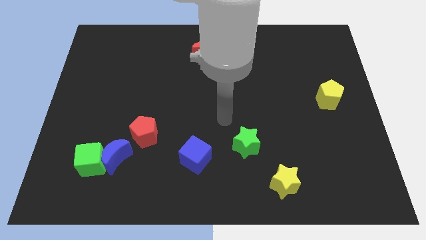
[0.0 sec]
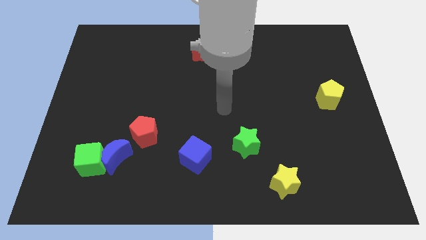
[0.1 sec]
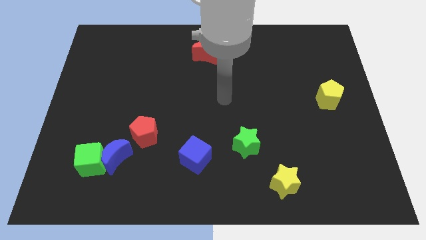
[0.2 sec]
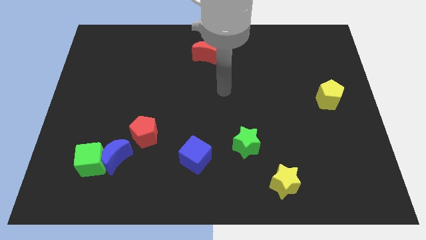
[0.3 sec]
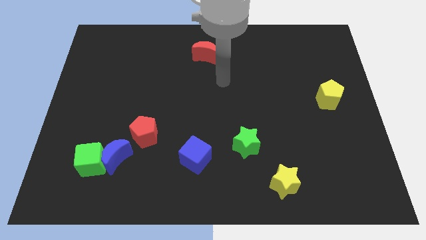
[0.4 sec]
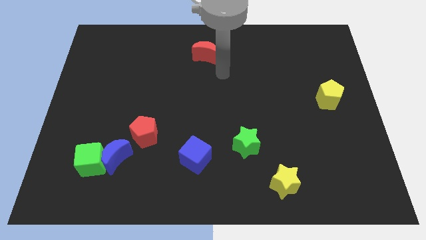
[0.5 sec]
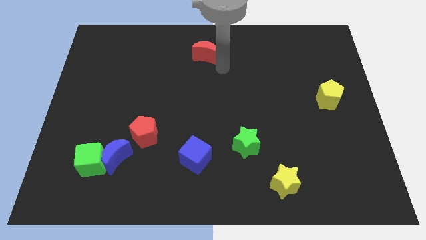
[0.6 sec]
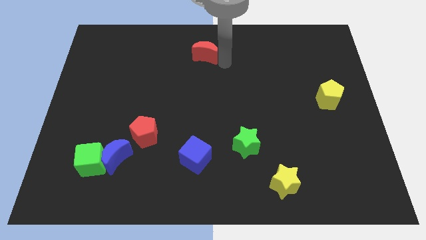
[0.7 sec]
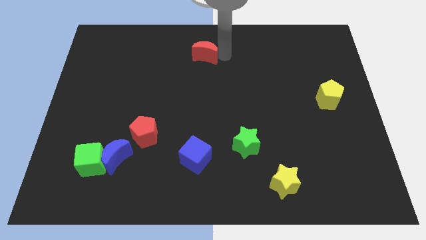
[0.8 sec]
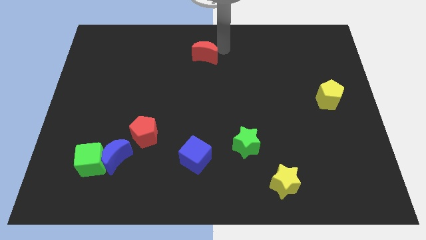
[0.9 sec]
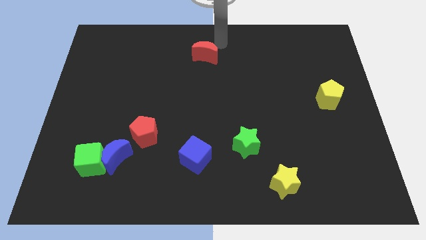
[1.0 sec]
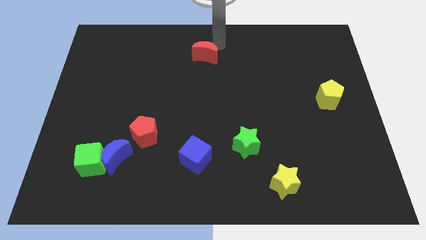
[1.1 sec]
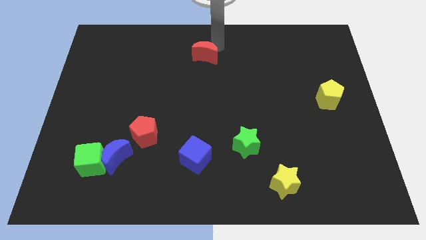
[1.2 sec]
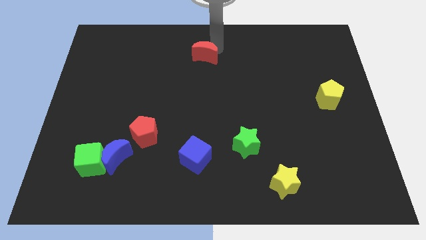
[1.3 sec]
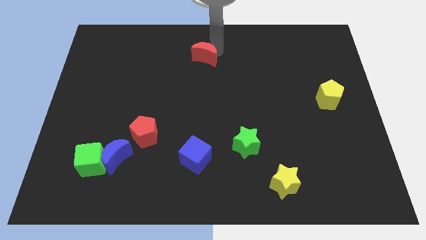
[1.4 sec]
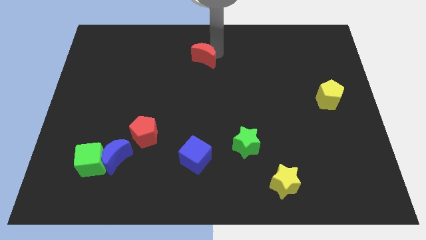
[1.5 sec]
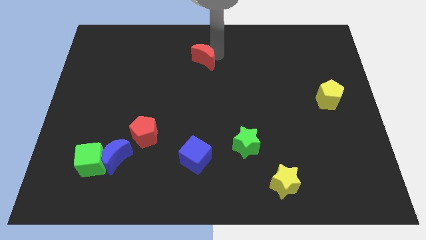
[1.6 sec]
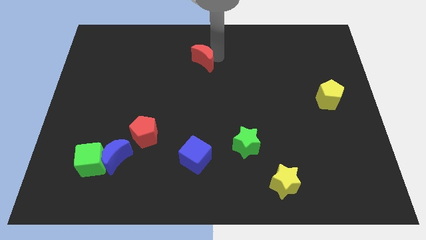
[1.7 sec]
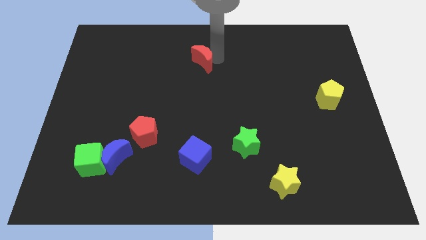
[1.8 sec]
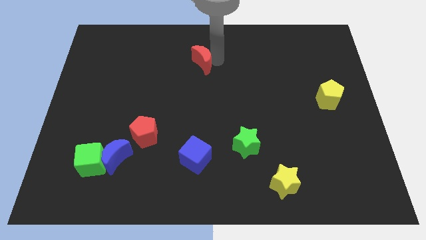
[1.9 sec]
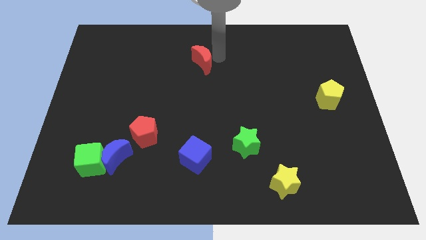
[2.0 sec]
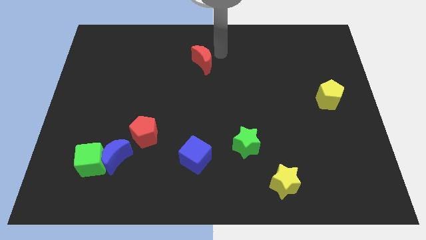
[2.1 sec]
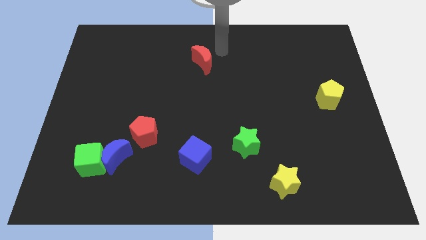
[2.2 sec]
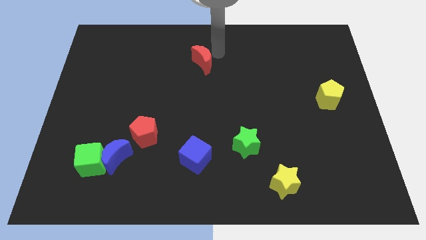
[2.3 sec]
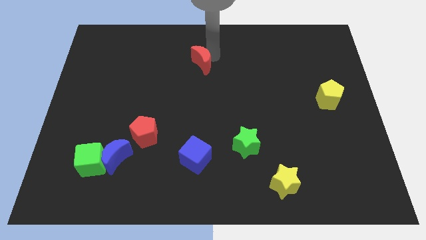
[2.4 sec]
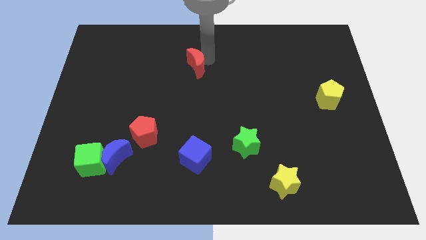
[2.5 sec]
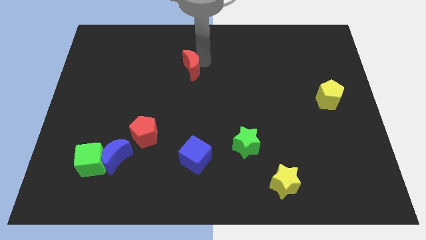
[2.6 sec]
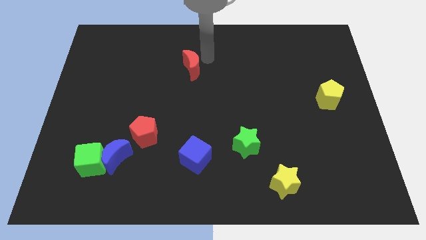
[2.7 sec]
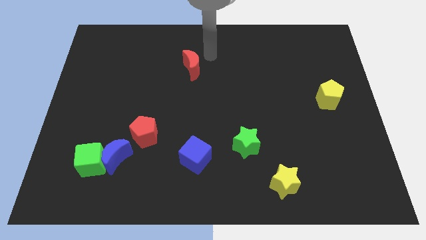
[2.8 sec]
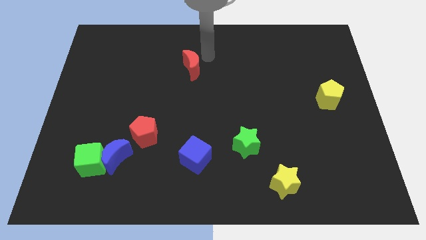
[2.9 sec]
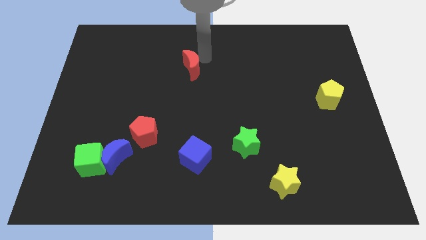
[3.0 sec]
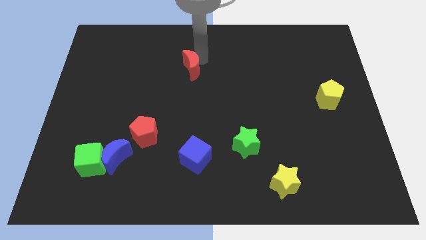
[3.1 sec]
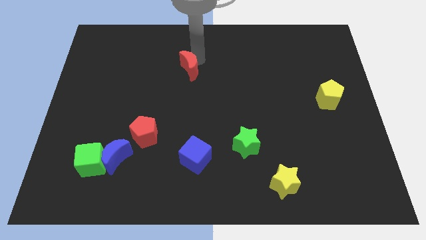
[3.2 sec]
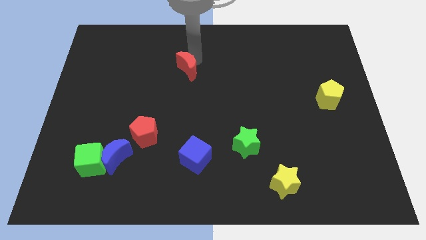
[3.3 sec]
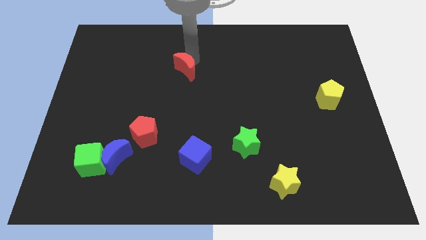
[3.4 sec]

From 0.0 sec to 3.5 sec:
slightly push the red moon diagonally down and to the left

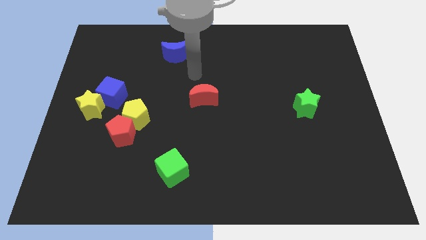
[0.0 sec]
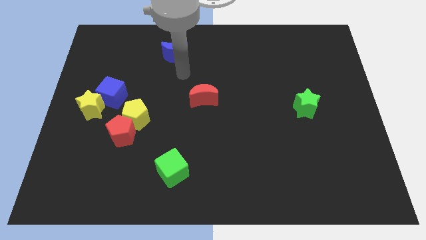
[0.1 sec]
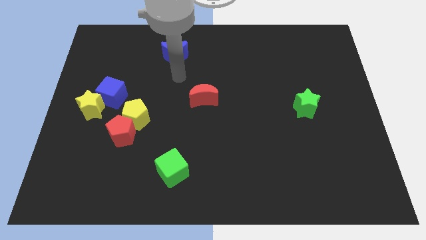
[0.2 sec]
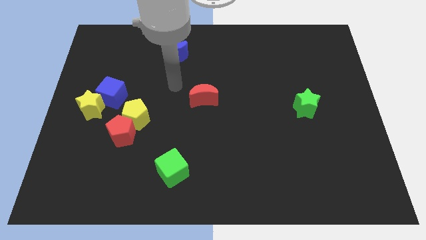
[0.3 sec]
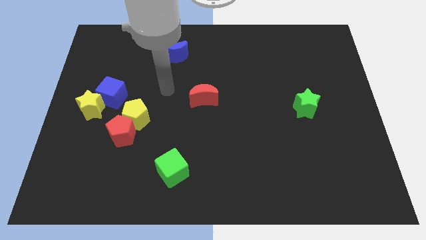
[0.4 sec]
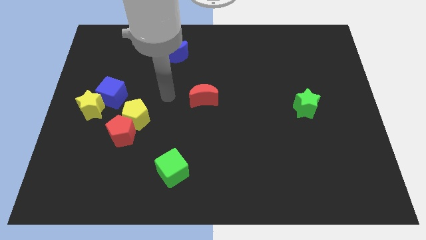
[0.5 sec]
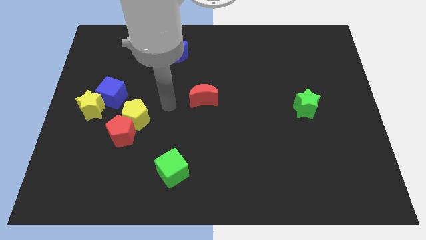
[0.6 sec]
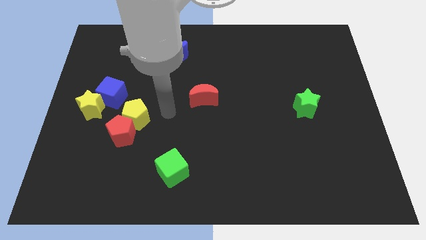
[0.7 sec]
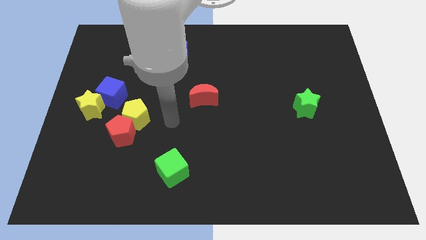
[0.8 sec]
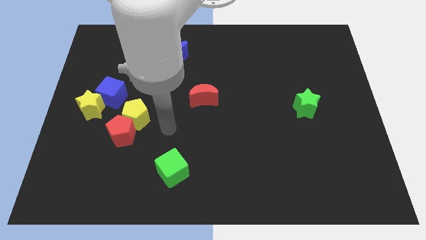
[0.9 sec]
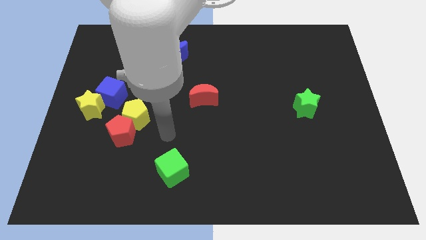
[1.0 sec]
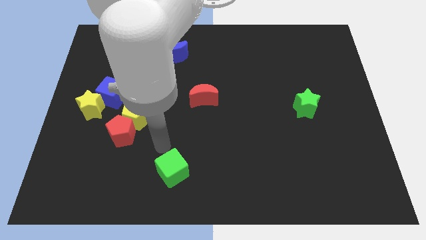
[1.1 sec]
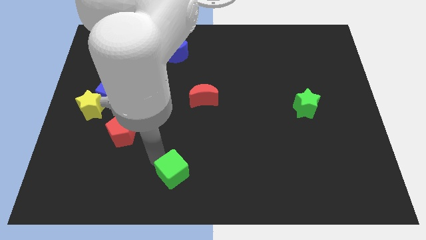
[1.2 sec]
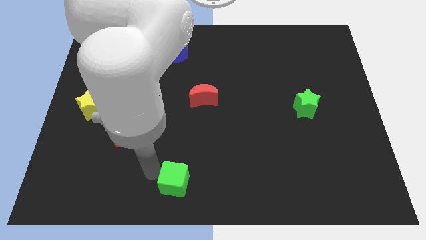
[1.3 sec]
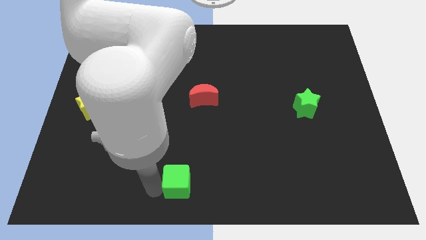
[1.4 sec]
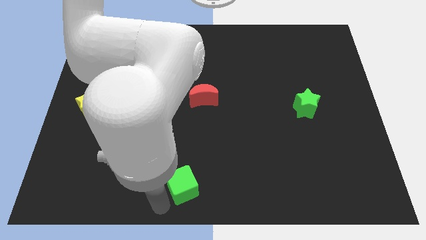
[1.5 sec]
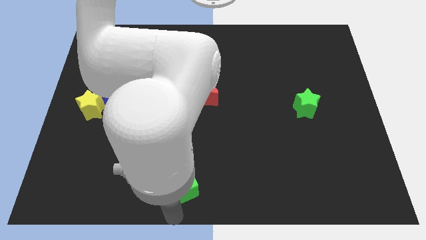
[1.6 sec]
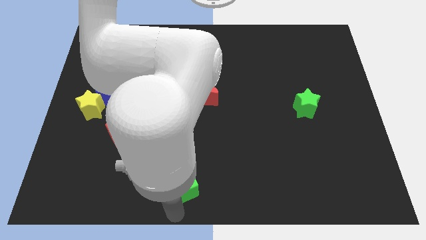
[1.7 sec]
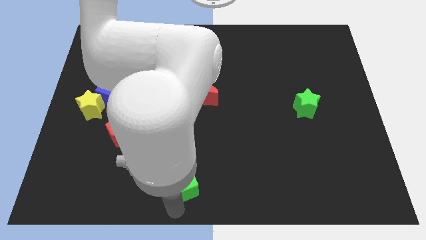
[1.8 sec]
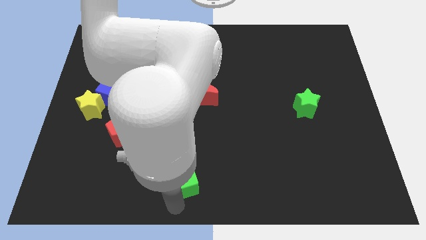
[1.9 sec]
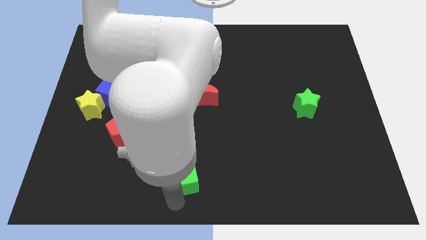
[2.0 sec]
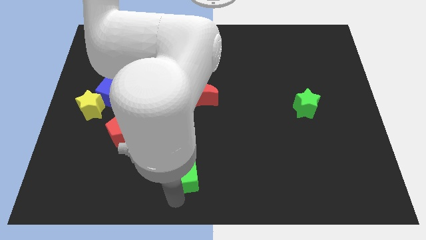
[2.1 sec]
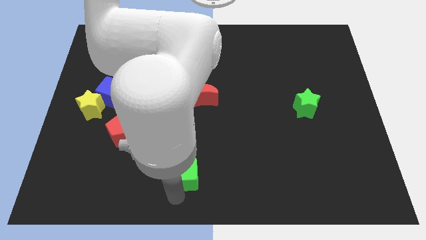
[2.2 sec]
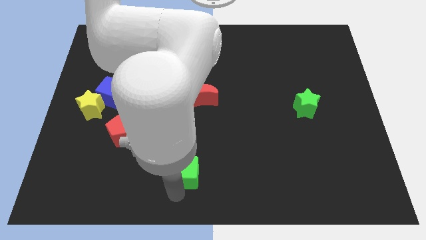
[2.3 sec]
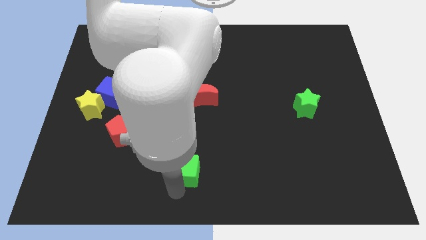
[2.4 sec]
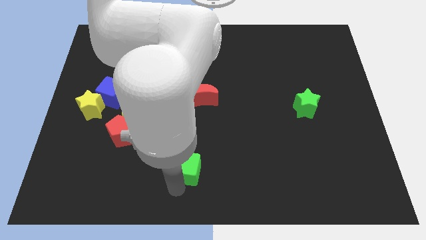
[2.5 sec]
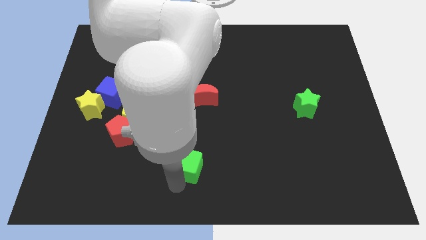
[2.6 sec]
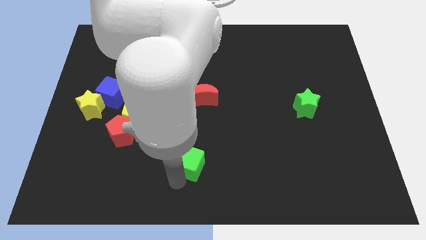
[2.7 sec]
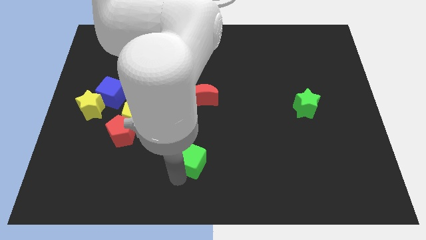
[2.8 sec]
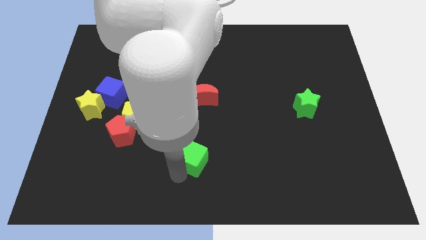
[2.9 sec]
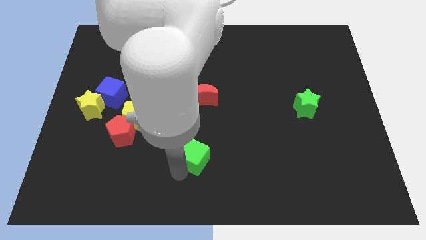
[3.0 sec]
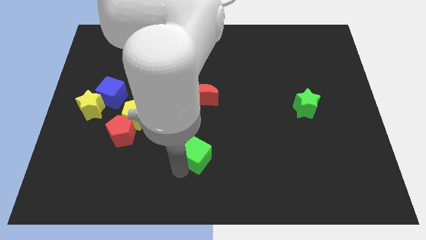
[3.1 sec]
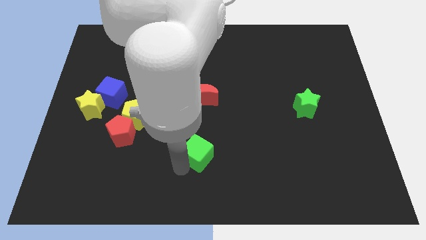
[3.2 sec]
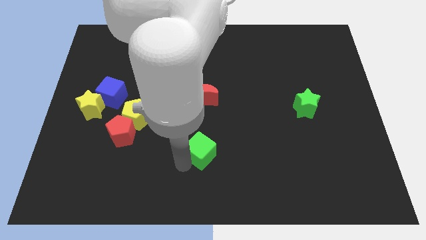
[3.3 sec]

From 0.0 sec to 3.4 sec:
slightly move the green cube upwards and to the right

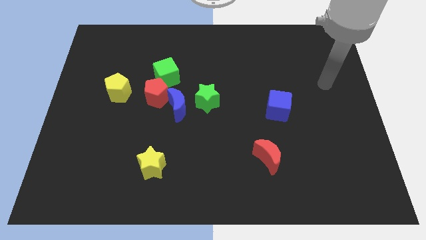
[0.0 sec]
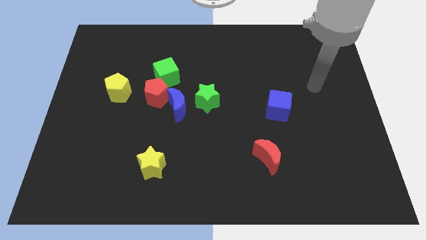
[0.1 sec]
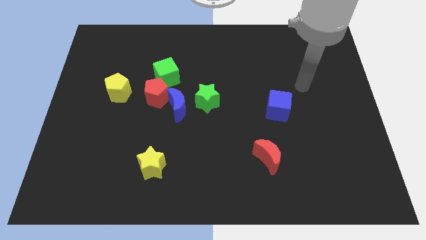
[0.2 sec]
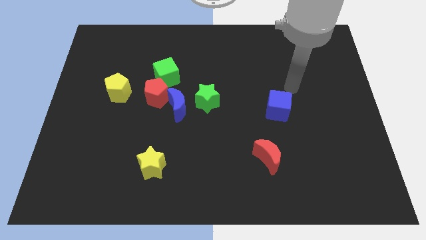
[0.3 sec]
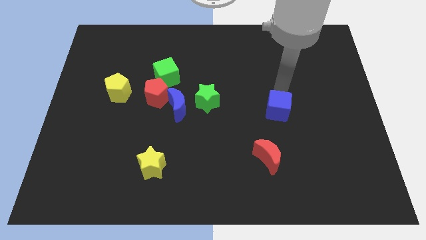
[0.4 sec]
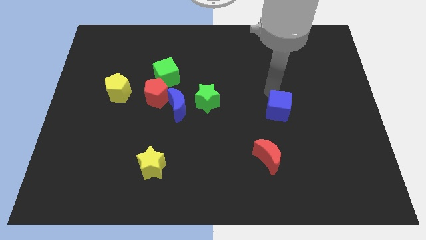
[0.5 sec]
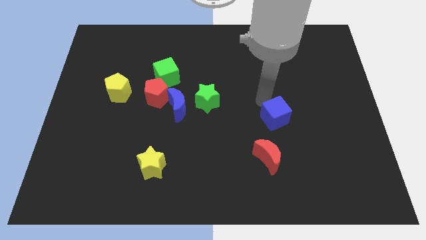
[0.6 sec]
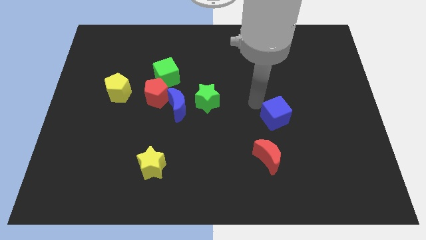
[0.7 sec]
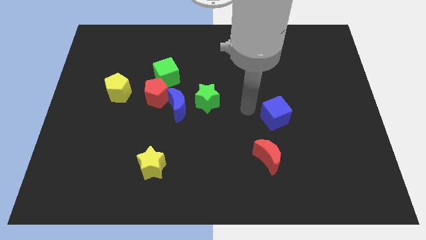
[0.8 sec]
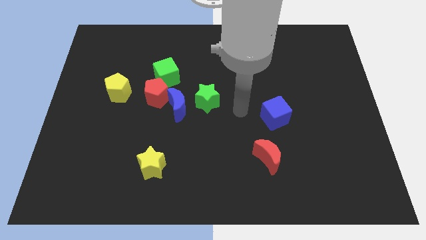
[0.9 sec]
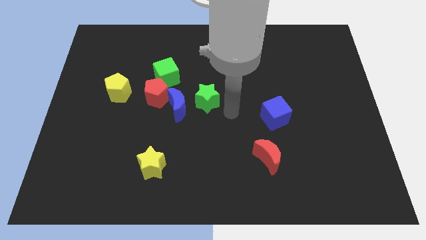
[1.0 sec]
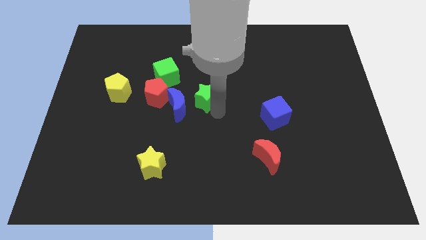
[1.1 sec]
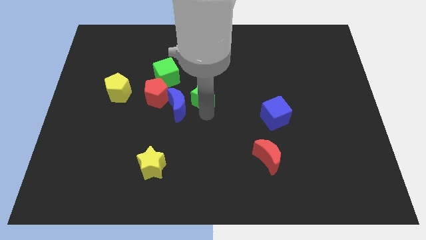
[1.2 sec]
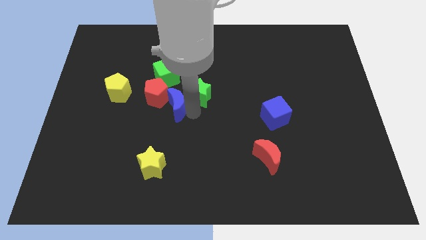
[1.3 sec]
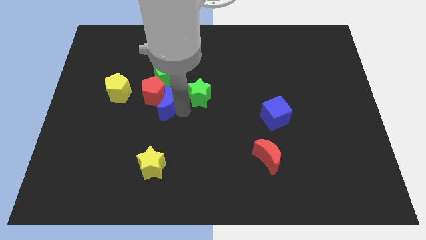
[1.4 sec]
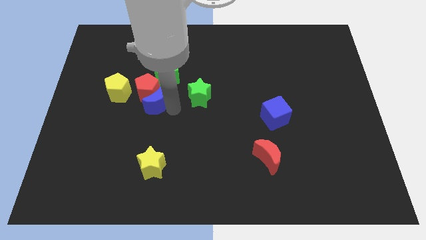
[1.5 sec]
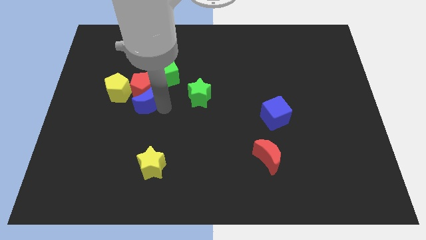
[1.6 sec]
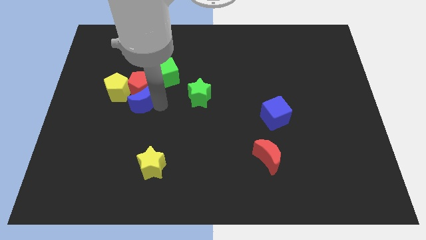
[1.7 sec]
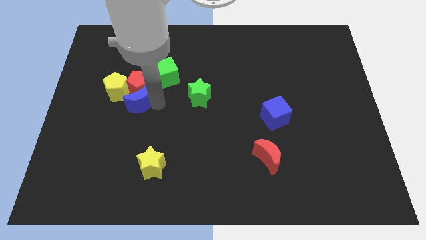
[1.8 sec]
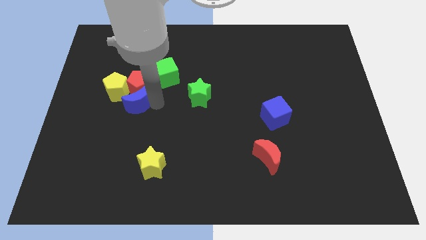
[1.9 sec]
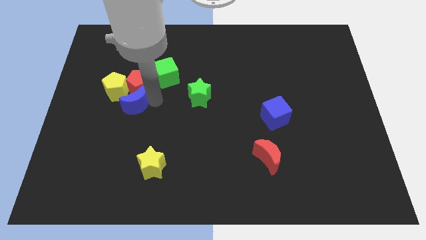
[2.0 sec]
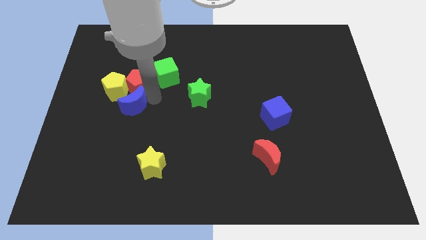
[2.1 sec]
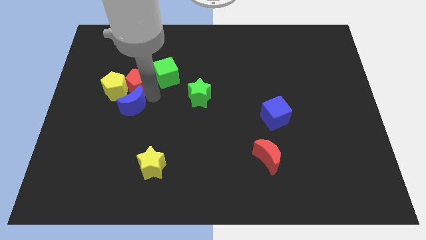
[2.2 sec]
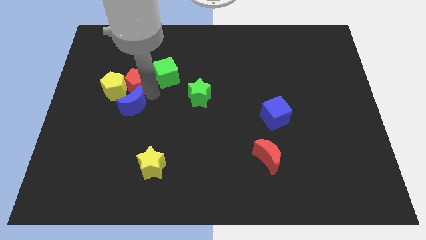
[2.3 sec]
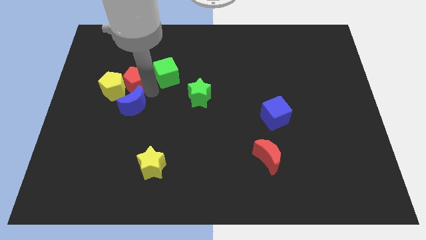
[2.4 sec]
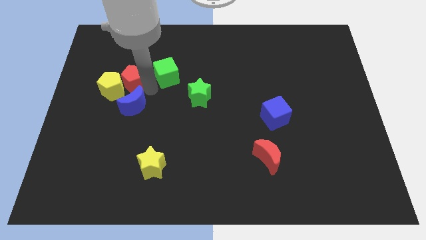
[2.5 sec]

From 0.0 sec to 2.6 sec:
push the red pentagon up and then to the left a bit
